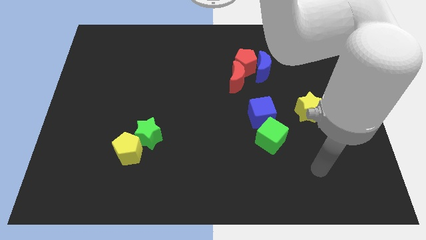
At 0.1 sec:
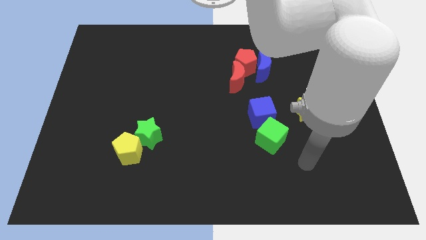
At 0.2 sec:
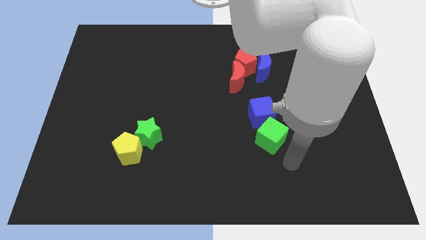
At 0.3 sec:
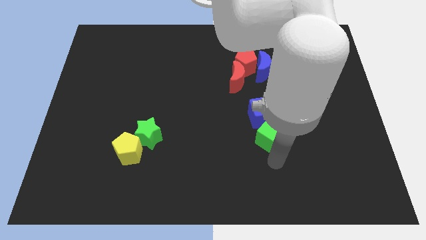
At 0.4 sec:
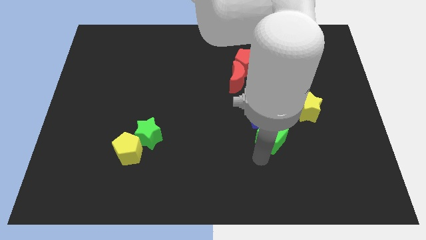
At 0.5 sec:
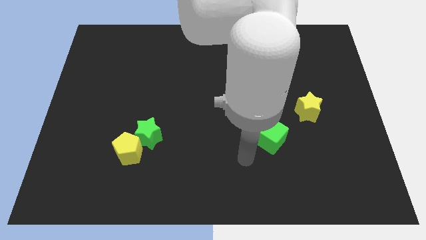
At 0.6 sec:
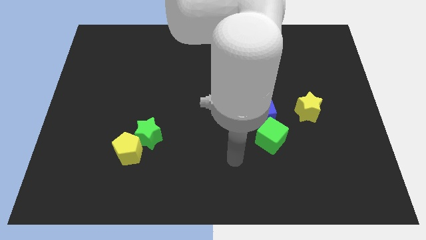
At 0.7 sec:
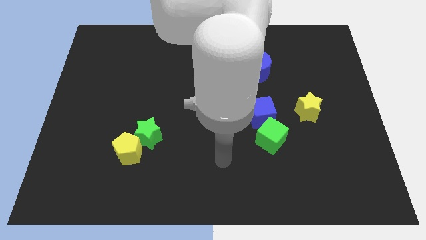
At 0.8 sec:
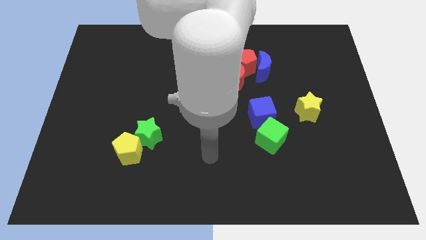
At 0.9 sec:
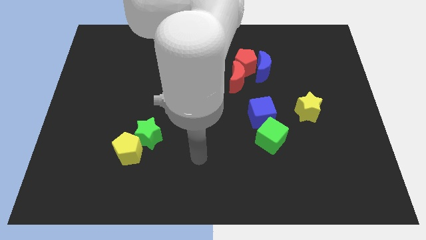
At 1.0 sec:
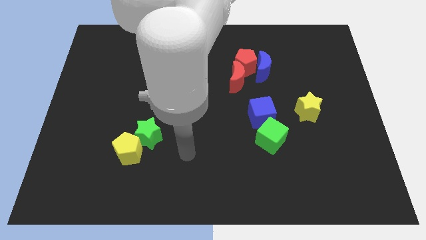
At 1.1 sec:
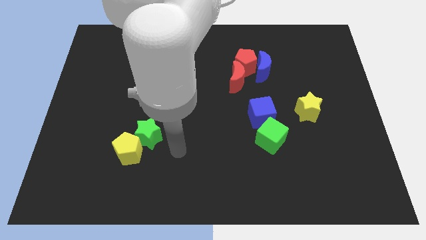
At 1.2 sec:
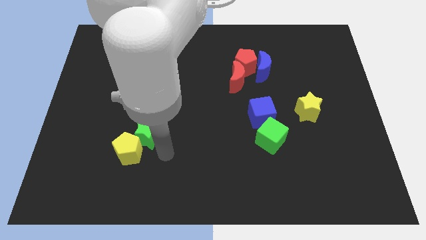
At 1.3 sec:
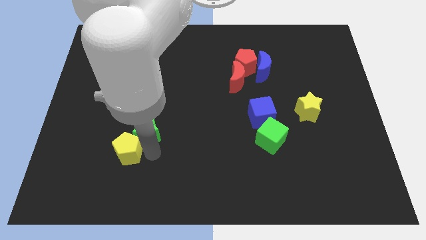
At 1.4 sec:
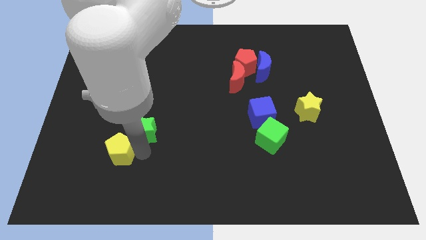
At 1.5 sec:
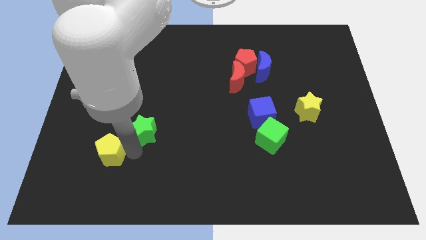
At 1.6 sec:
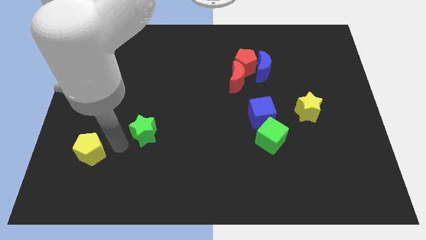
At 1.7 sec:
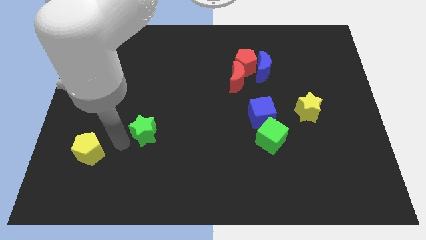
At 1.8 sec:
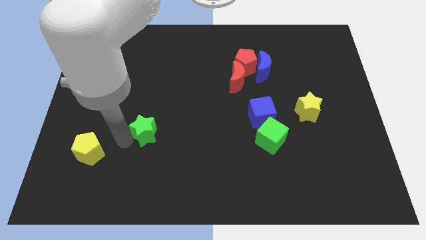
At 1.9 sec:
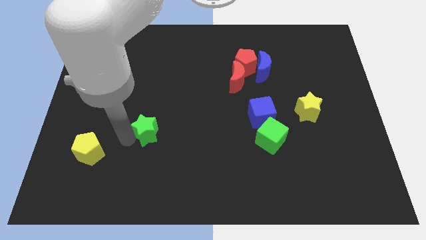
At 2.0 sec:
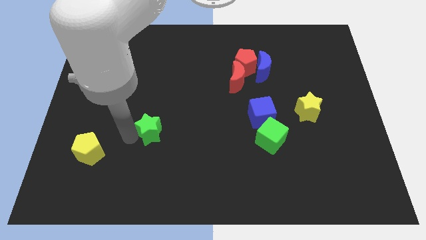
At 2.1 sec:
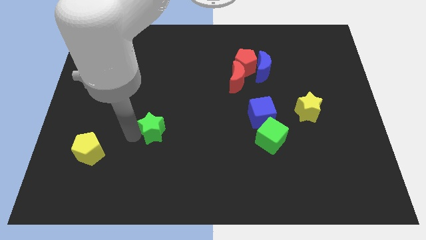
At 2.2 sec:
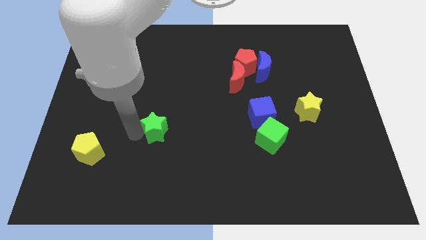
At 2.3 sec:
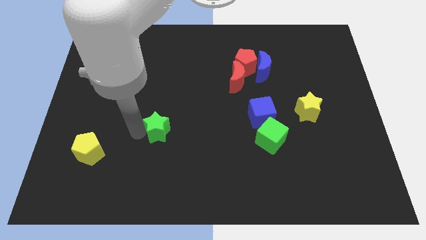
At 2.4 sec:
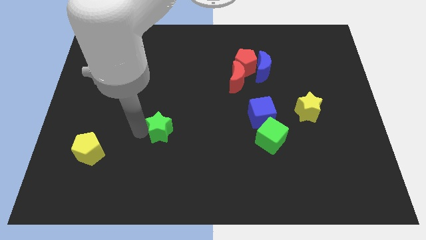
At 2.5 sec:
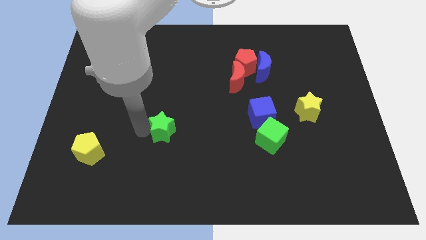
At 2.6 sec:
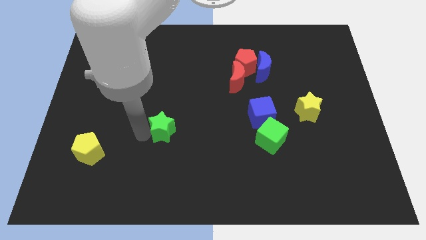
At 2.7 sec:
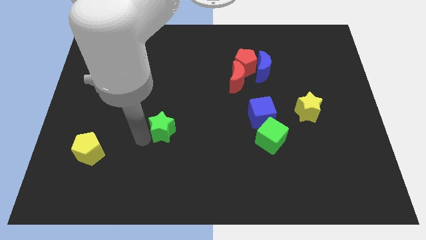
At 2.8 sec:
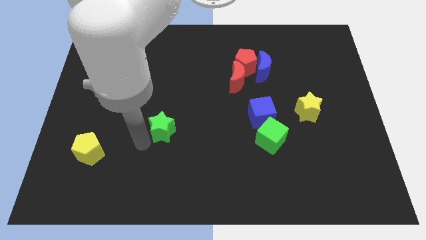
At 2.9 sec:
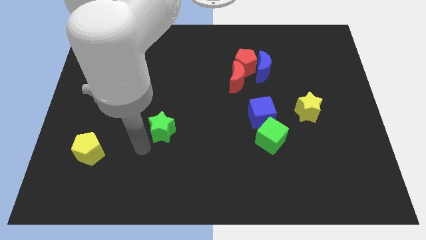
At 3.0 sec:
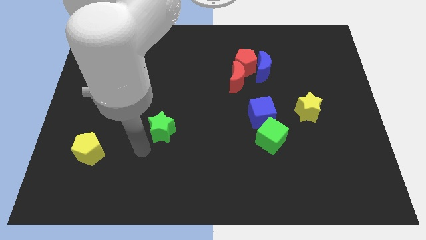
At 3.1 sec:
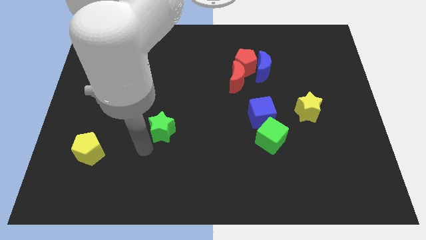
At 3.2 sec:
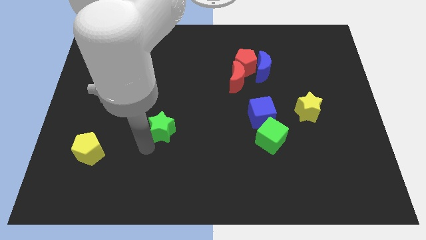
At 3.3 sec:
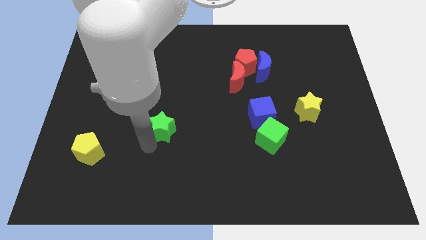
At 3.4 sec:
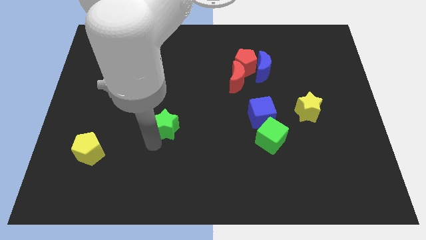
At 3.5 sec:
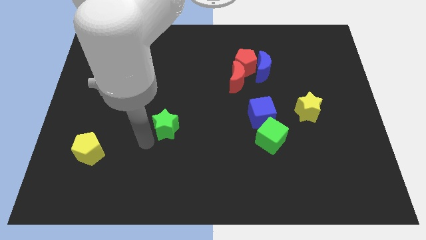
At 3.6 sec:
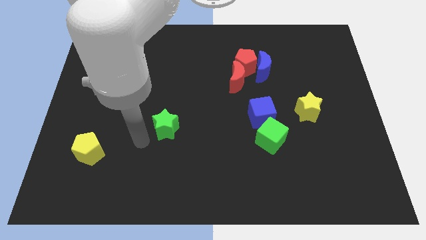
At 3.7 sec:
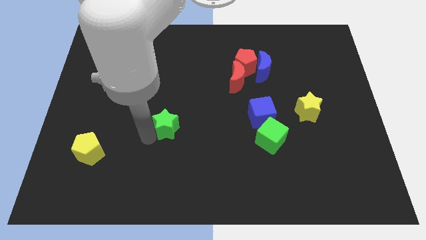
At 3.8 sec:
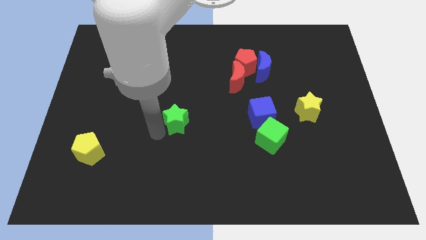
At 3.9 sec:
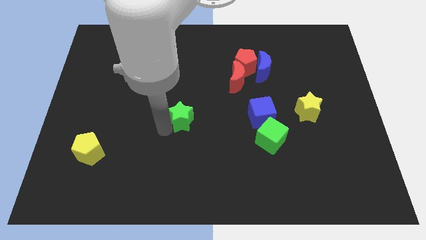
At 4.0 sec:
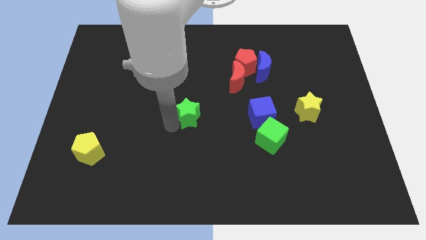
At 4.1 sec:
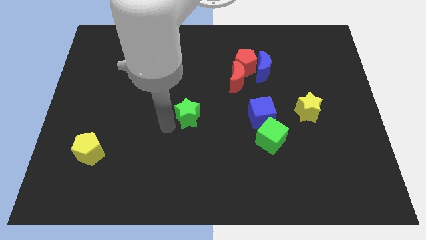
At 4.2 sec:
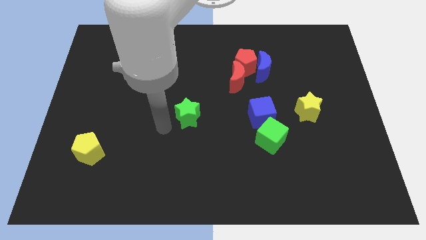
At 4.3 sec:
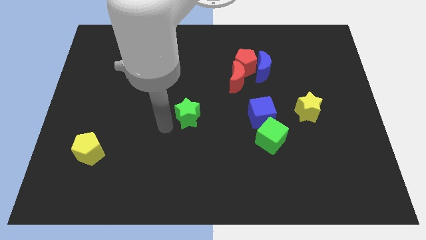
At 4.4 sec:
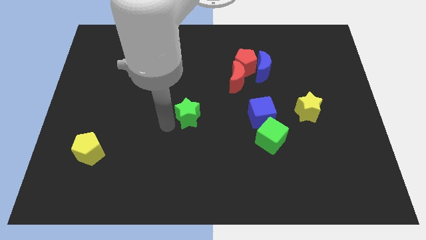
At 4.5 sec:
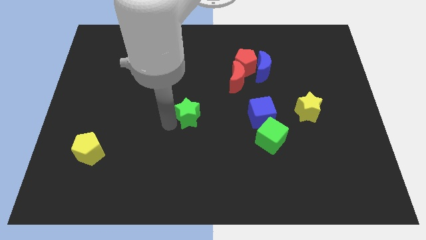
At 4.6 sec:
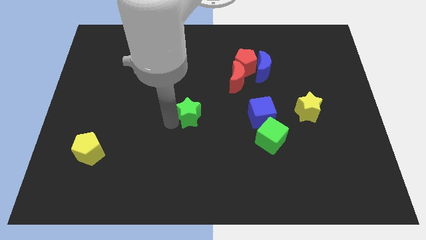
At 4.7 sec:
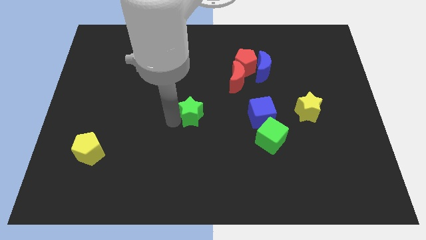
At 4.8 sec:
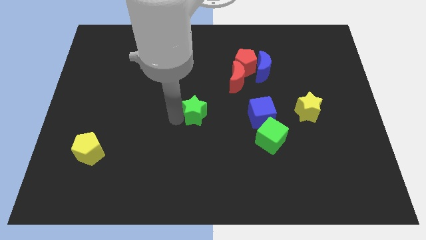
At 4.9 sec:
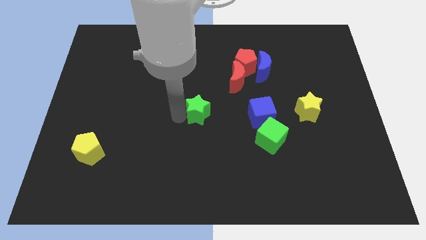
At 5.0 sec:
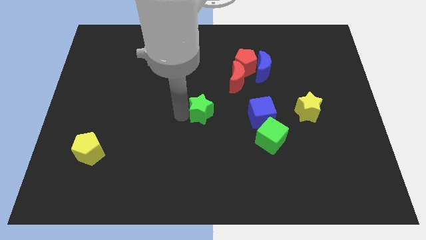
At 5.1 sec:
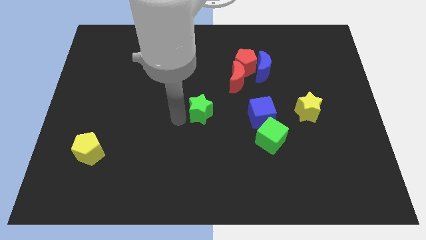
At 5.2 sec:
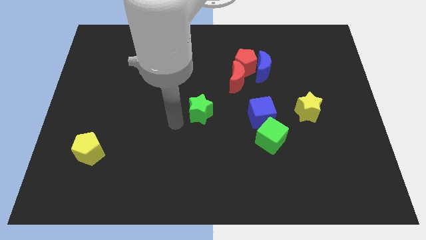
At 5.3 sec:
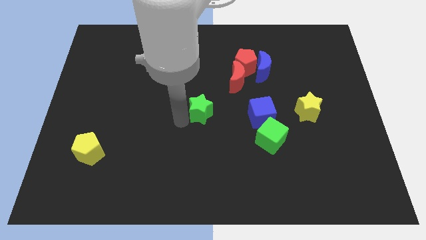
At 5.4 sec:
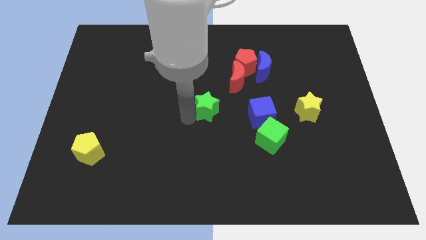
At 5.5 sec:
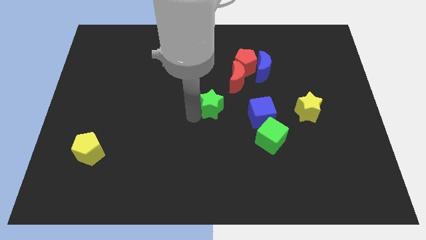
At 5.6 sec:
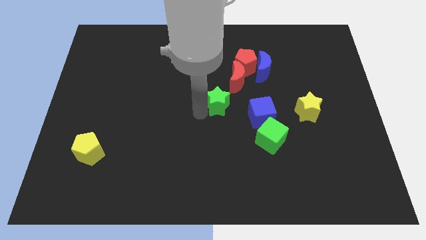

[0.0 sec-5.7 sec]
put the green star diagonally up and to the left of the blue cube

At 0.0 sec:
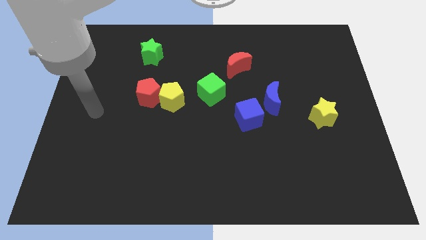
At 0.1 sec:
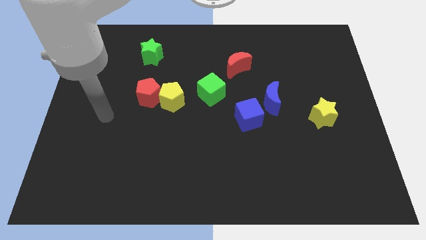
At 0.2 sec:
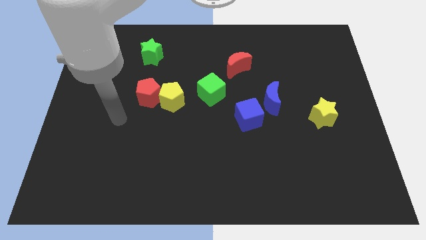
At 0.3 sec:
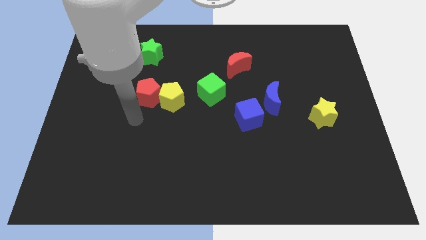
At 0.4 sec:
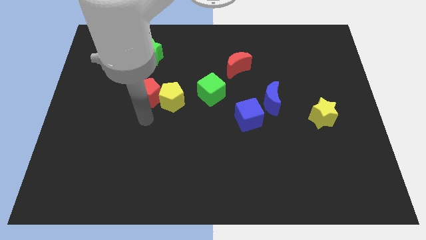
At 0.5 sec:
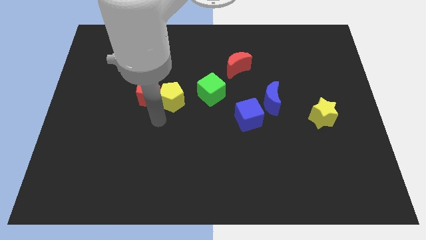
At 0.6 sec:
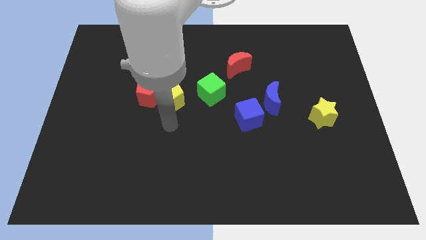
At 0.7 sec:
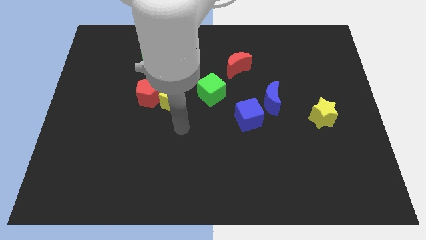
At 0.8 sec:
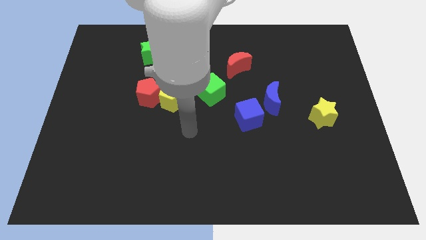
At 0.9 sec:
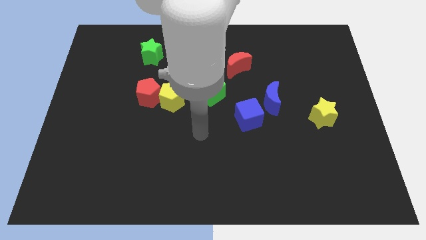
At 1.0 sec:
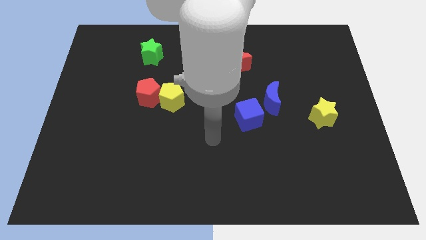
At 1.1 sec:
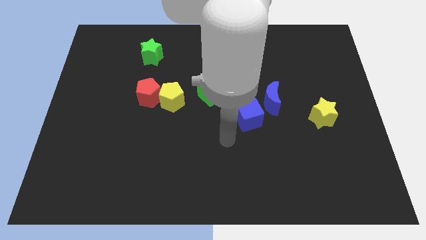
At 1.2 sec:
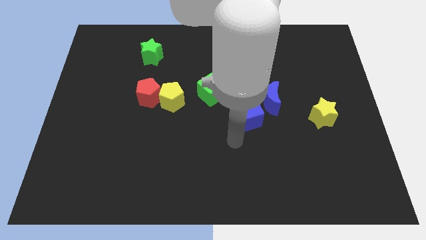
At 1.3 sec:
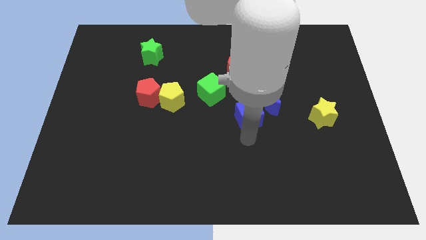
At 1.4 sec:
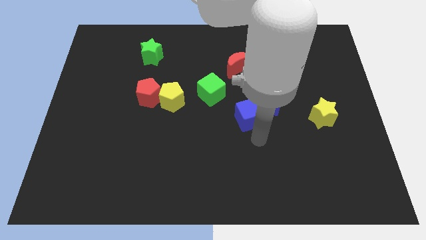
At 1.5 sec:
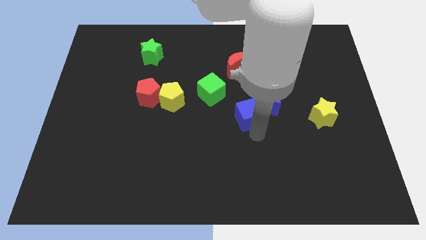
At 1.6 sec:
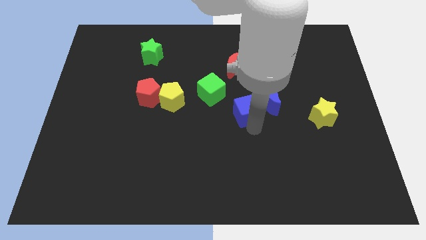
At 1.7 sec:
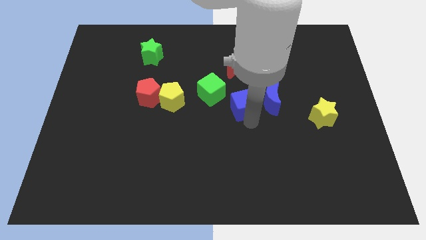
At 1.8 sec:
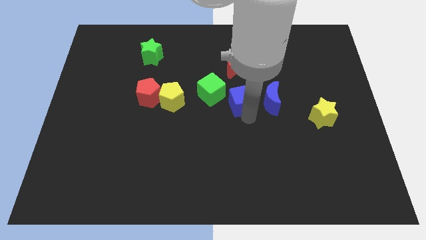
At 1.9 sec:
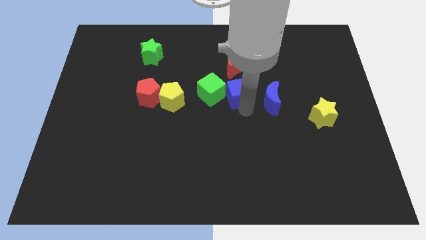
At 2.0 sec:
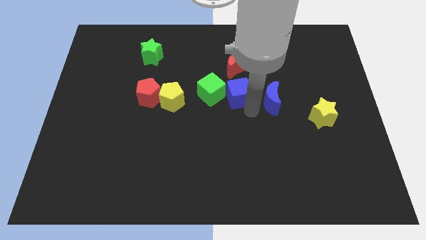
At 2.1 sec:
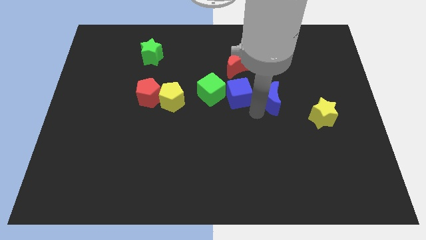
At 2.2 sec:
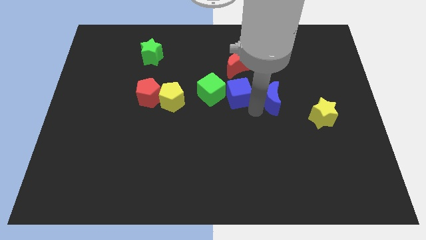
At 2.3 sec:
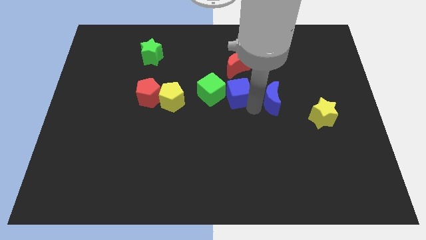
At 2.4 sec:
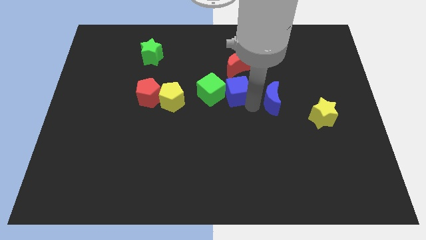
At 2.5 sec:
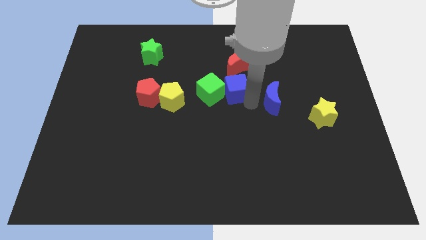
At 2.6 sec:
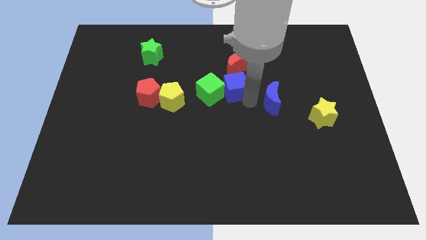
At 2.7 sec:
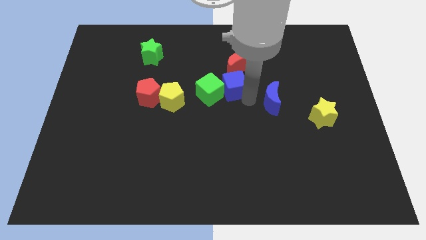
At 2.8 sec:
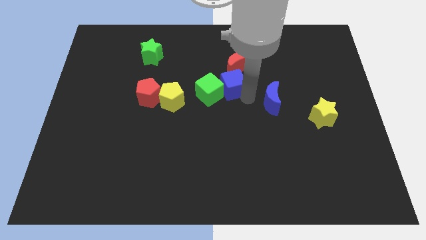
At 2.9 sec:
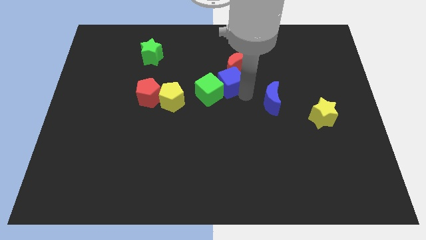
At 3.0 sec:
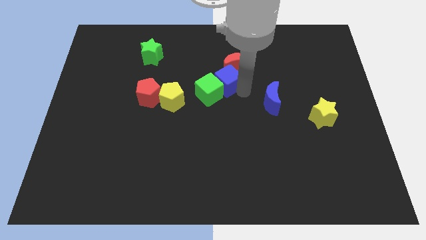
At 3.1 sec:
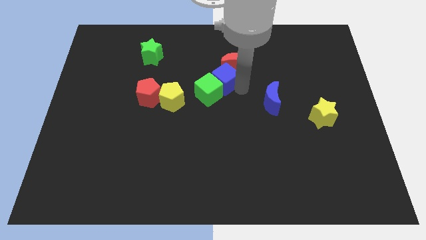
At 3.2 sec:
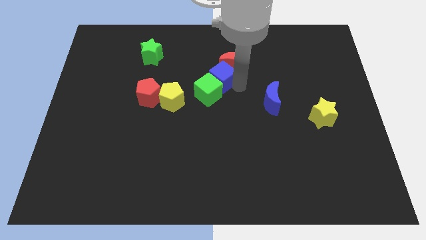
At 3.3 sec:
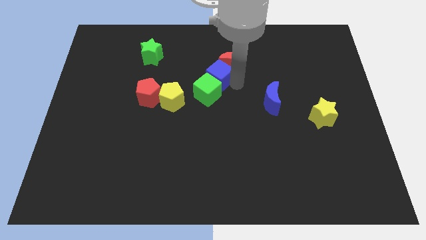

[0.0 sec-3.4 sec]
slide the blue cube just left of the red moon
